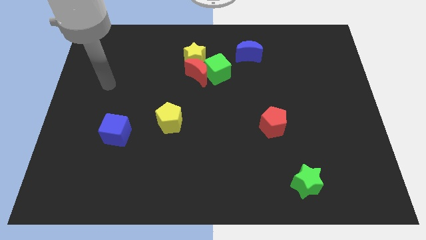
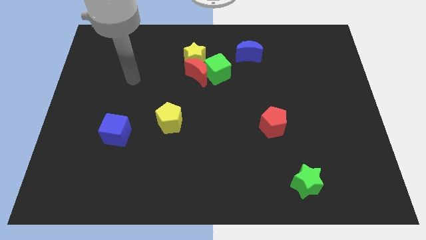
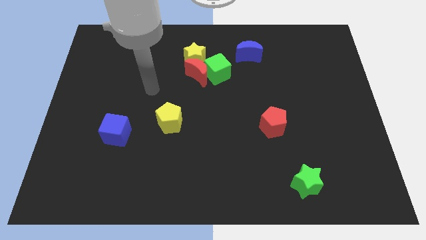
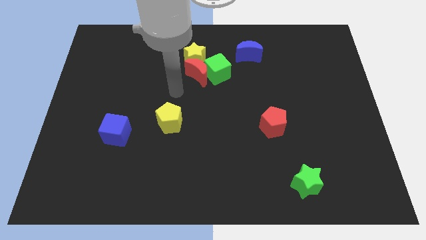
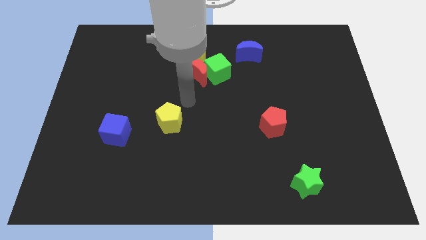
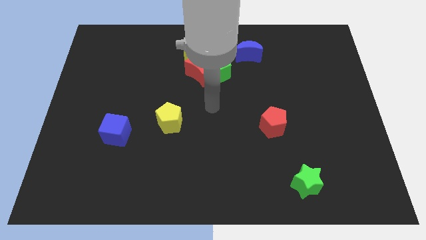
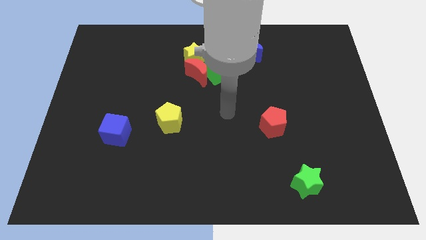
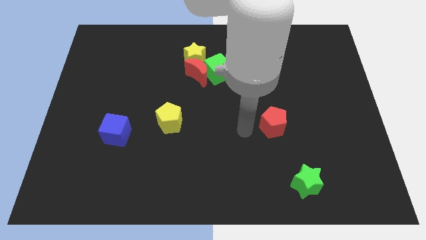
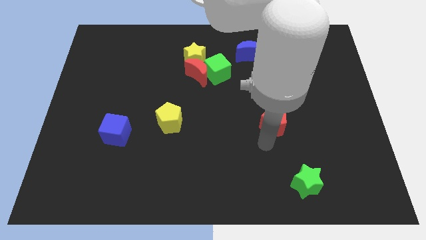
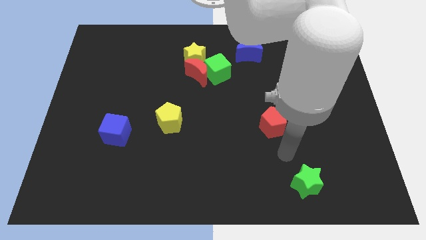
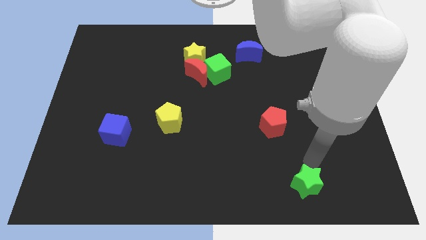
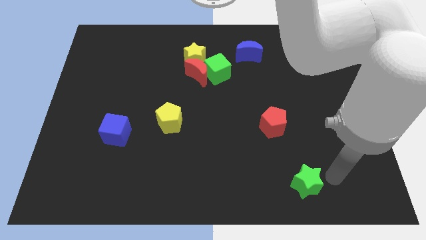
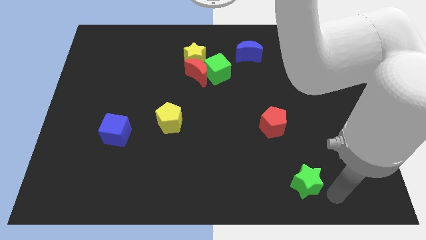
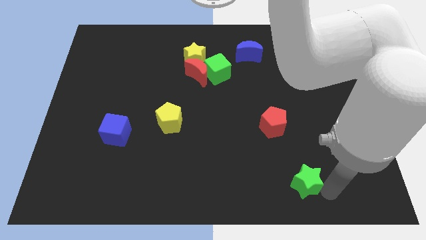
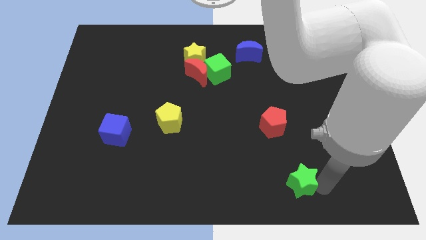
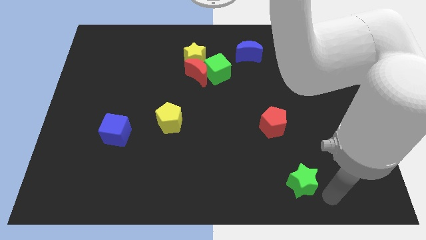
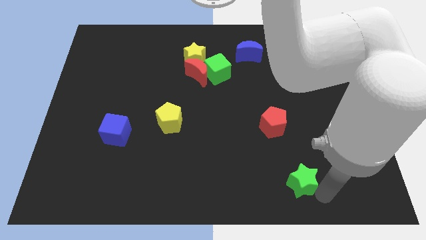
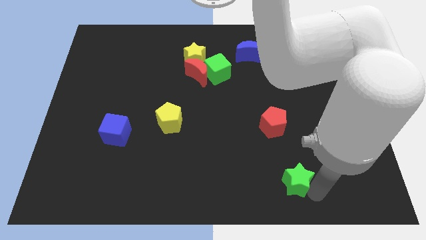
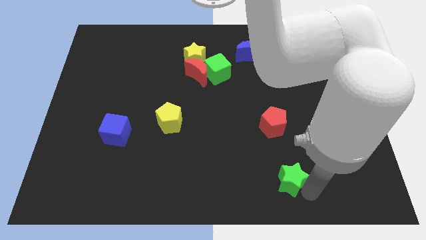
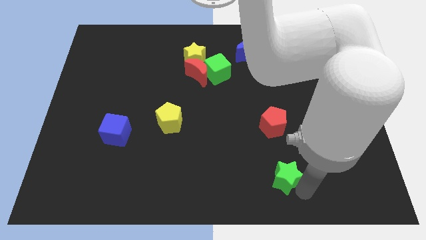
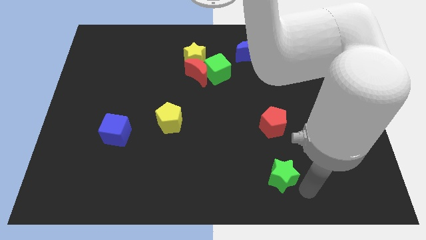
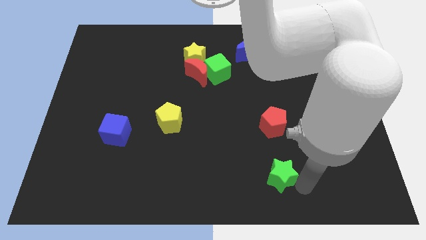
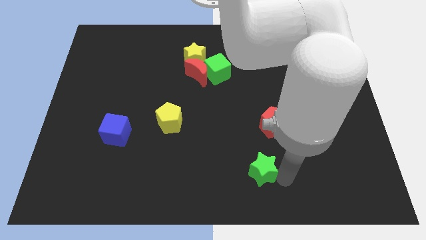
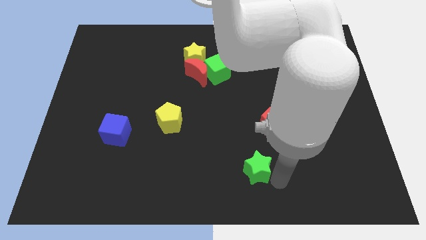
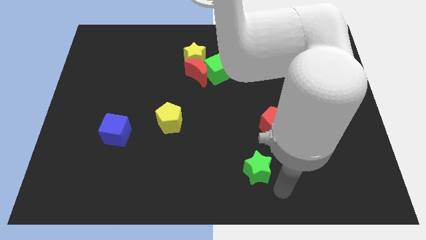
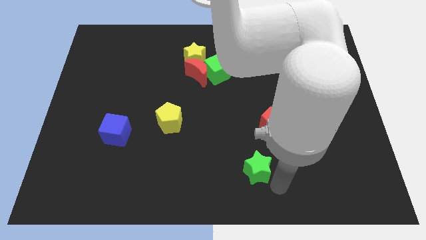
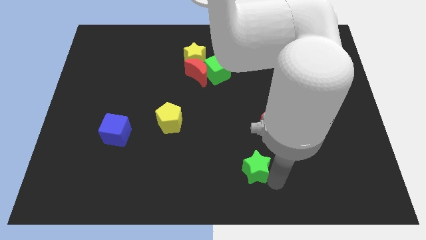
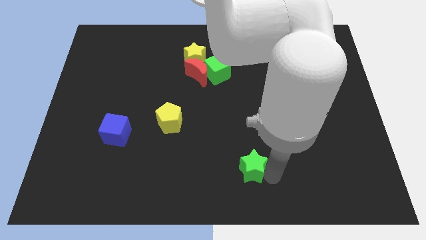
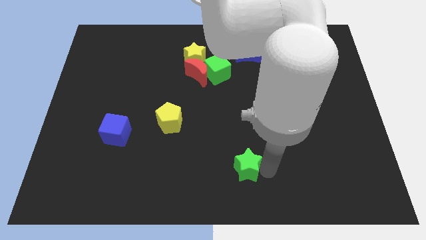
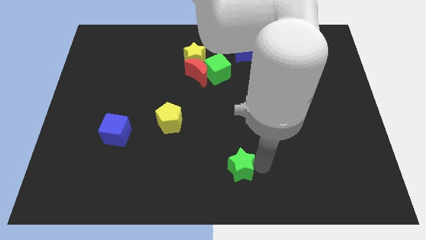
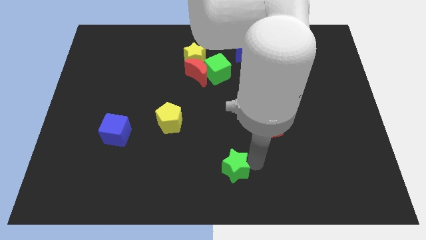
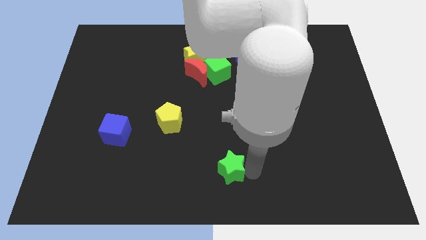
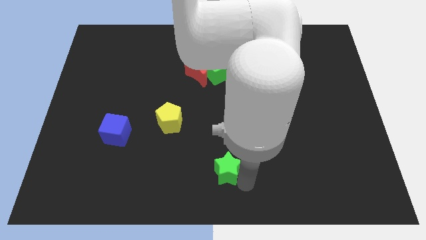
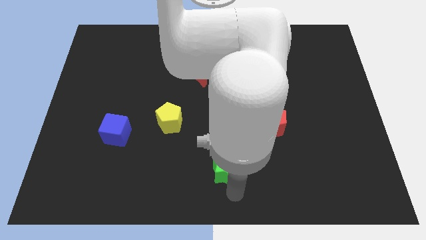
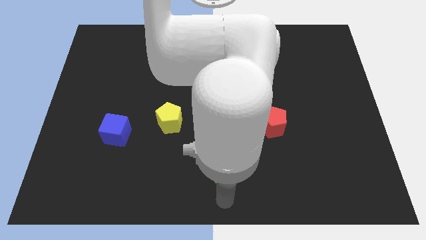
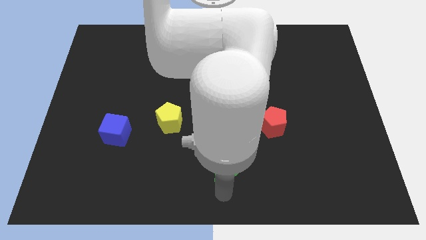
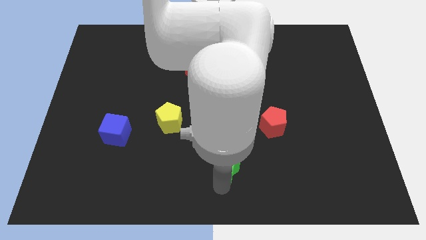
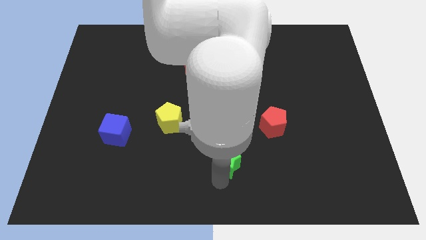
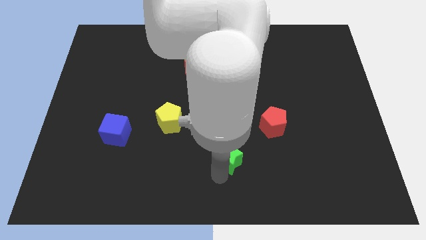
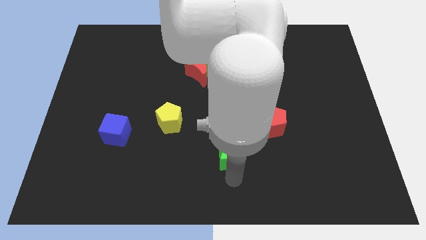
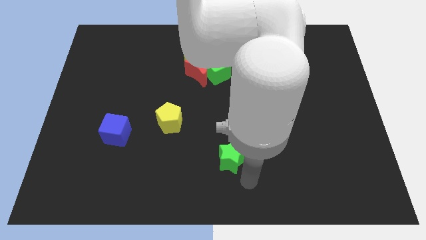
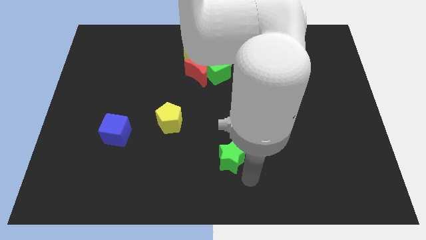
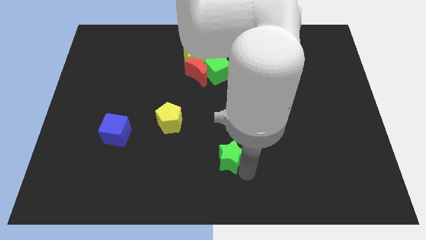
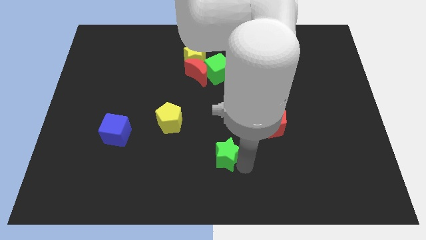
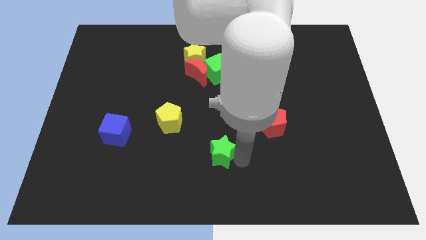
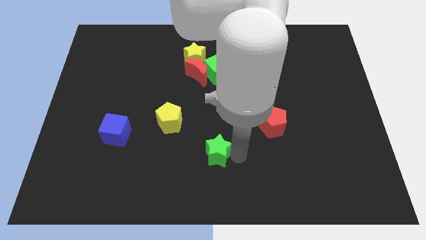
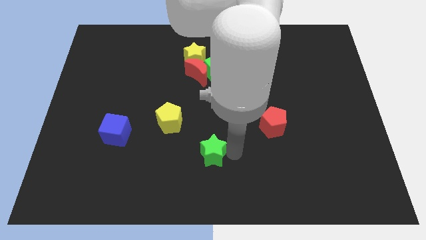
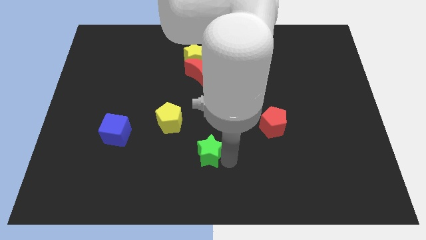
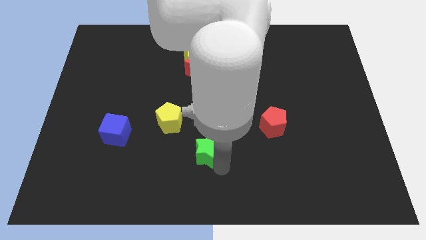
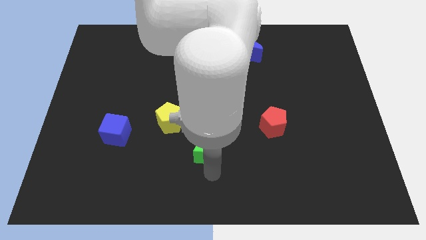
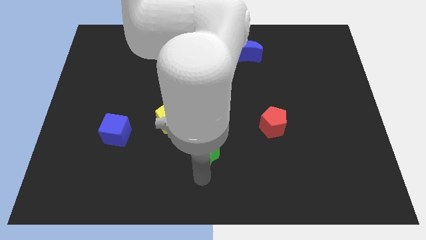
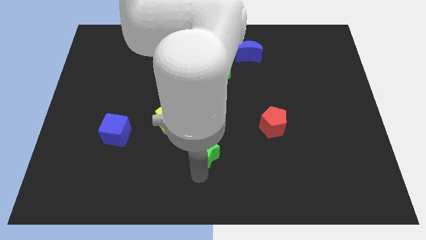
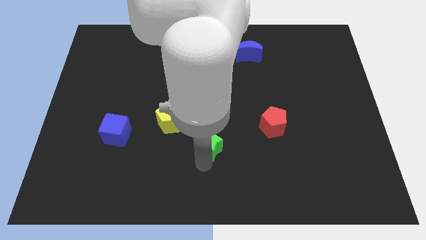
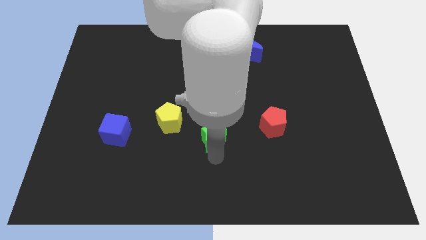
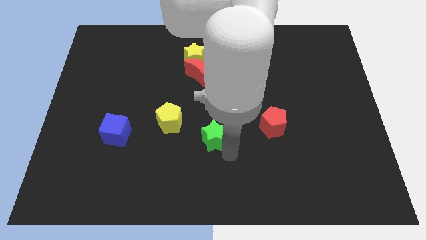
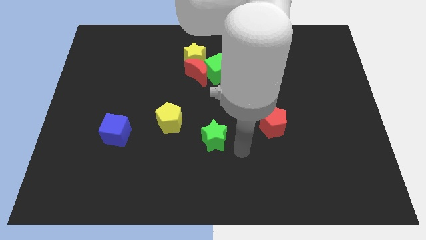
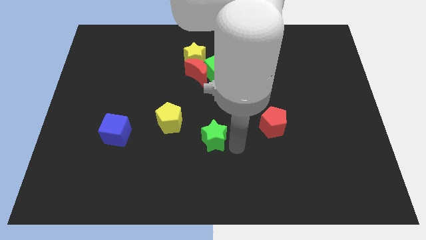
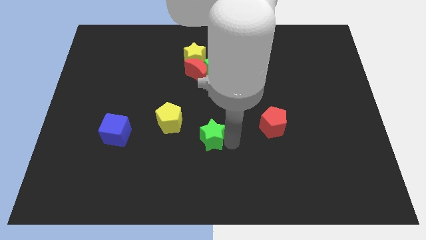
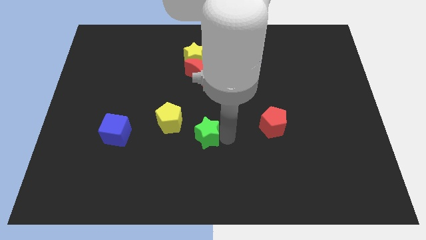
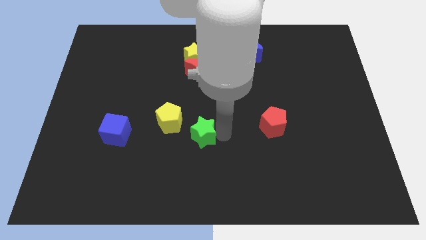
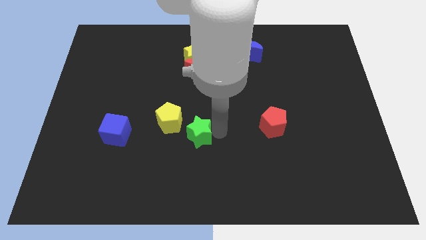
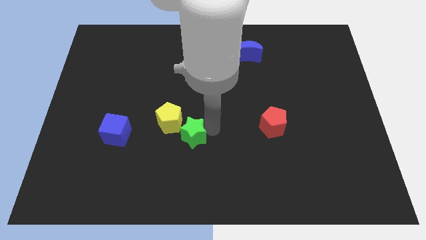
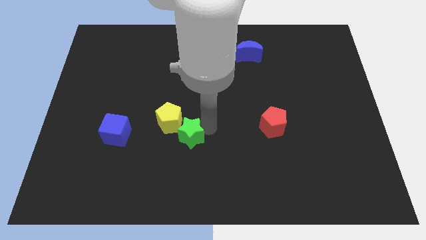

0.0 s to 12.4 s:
push the green star towards the yellow pentagon

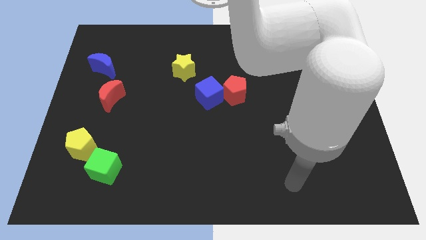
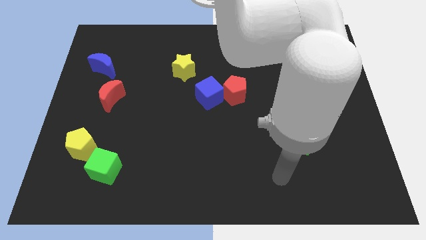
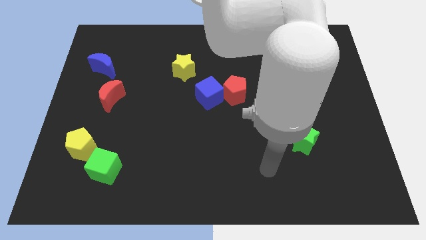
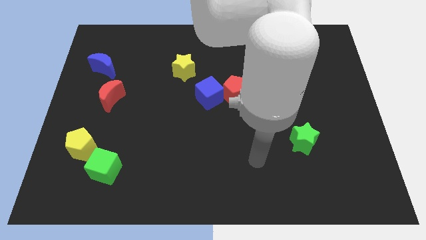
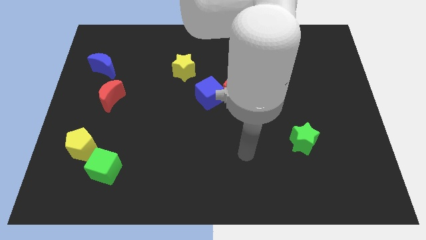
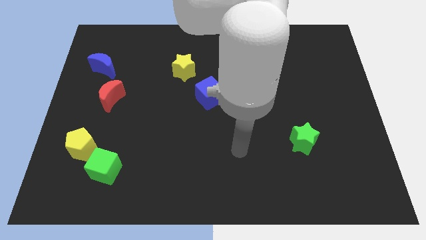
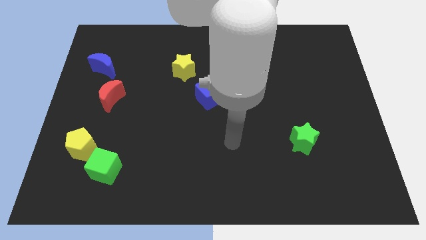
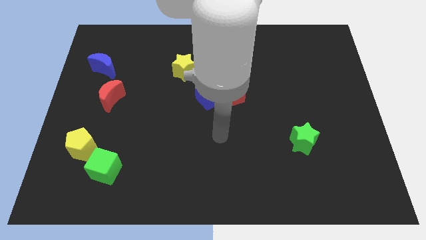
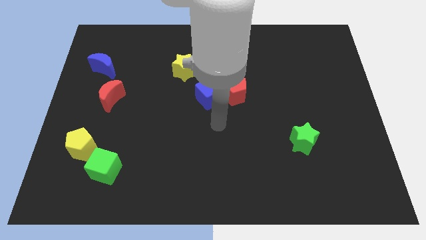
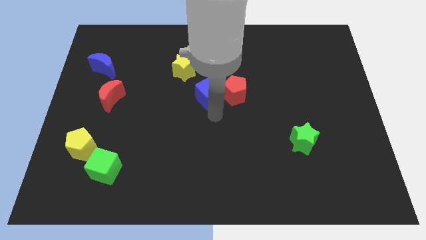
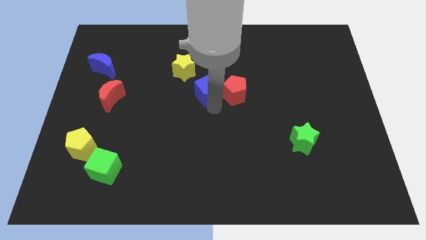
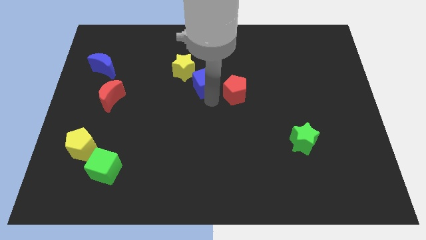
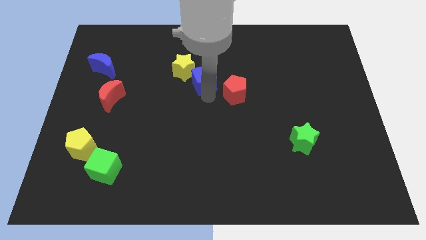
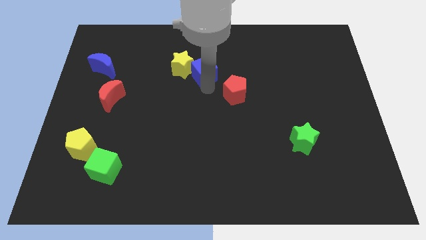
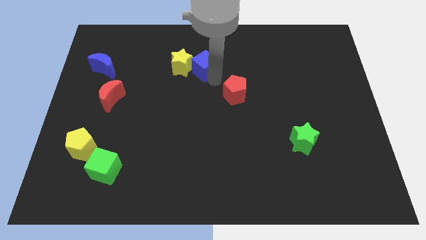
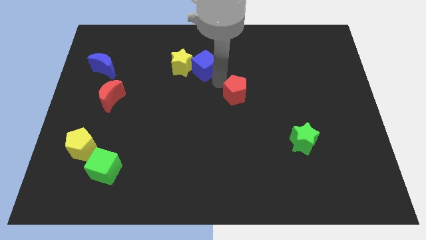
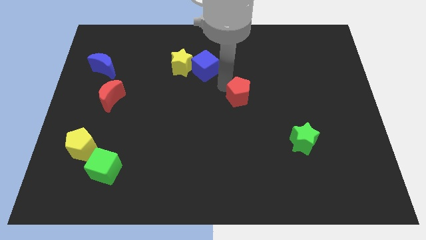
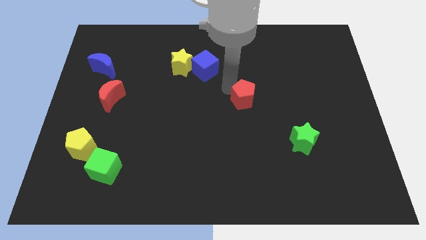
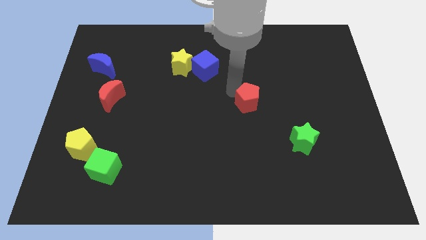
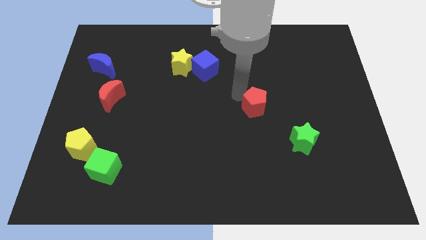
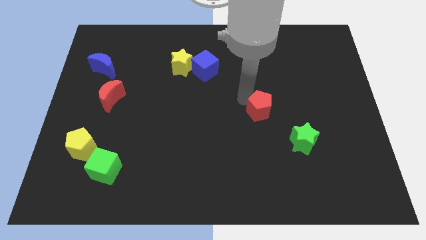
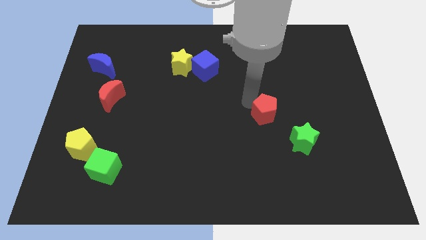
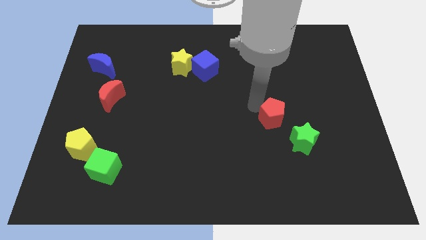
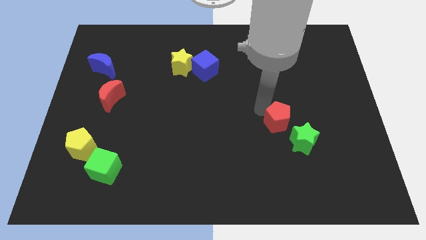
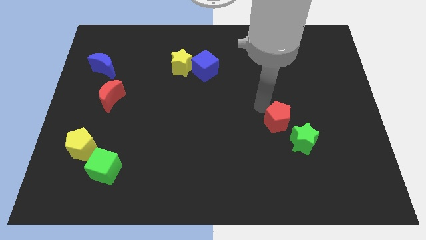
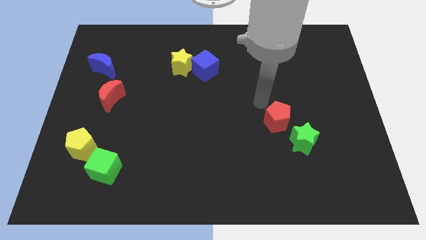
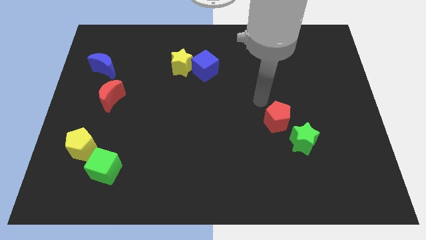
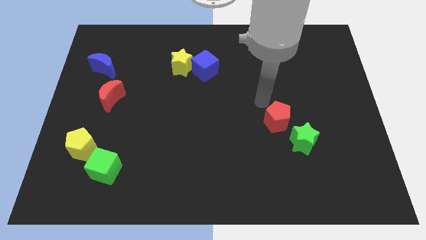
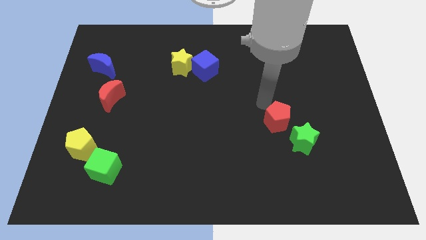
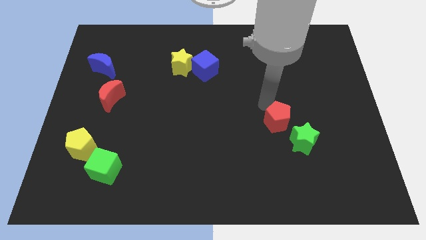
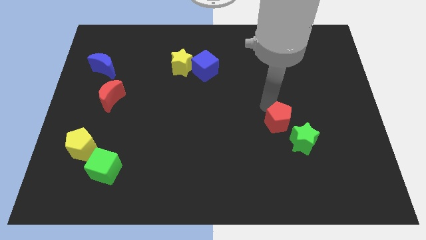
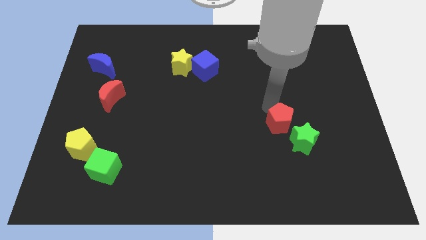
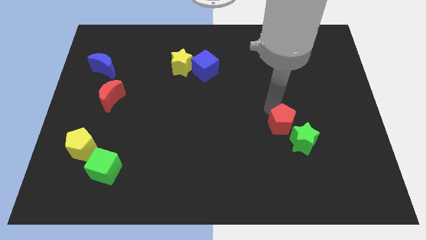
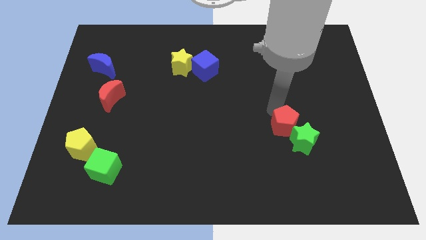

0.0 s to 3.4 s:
push the red pentagon towards the green star
